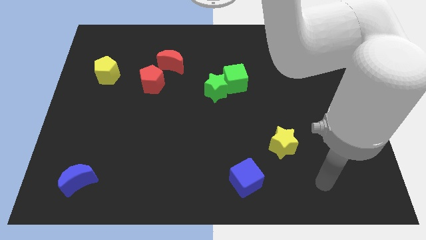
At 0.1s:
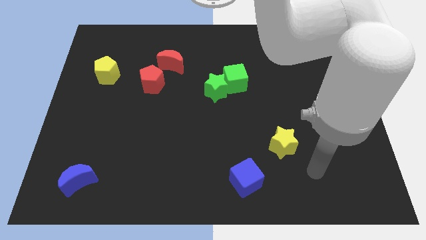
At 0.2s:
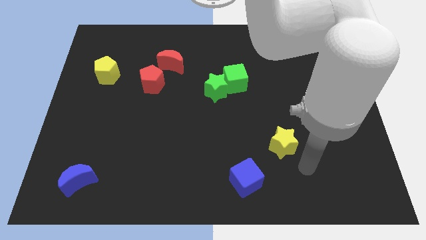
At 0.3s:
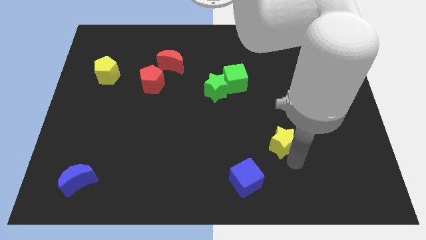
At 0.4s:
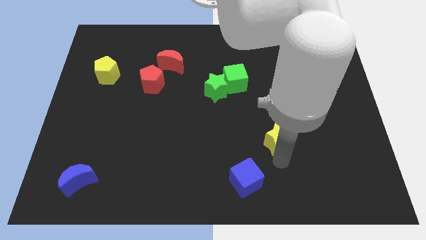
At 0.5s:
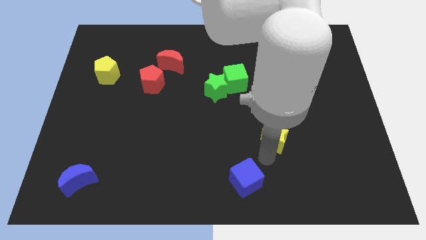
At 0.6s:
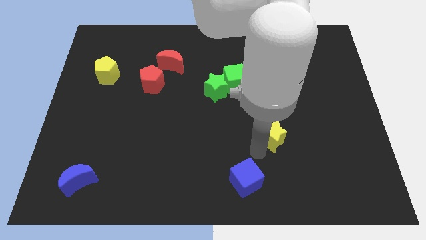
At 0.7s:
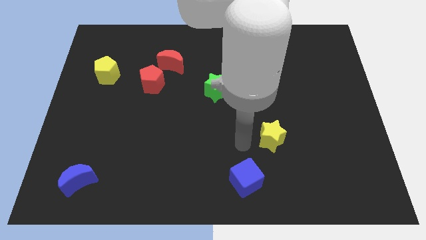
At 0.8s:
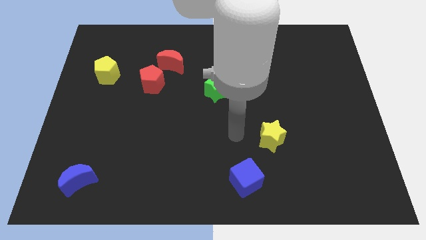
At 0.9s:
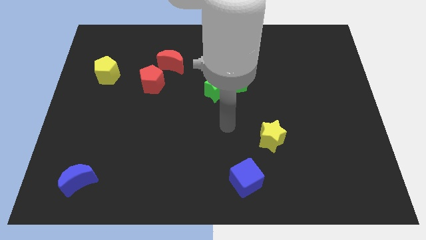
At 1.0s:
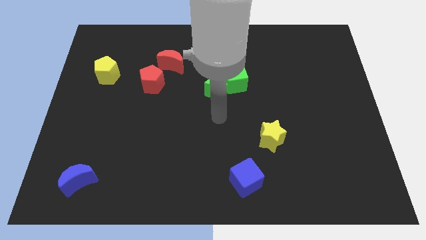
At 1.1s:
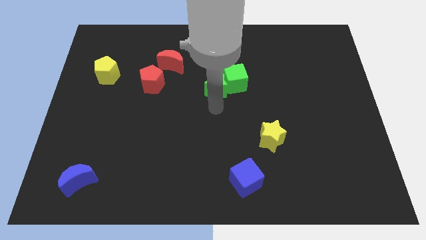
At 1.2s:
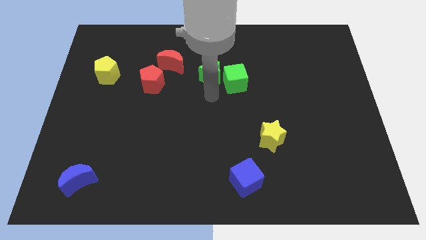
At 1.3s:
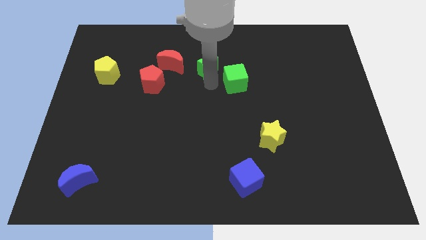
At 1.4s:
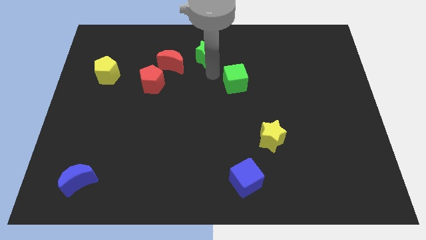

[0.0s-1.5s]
move the green cube away from the green star

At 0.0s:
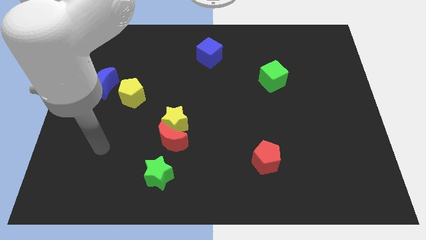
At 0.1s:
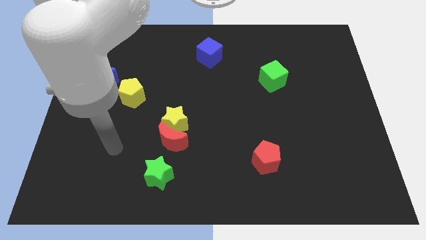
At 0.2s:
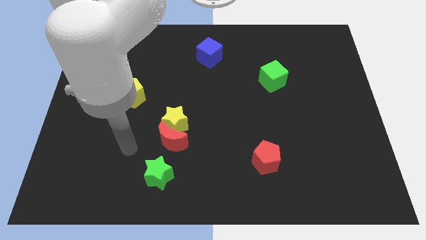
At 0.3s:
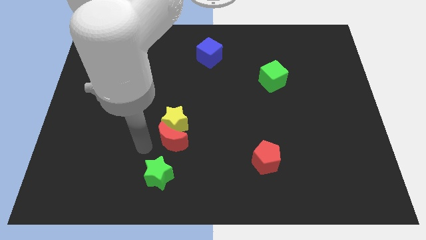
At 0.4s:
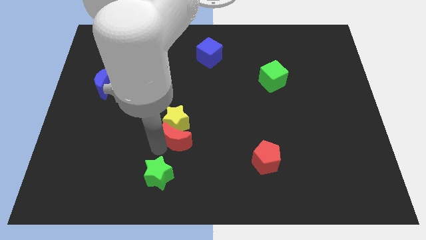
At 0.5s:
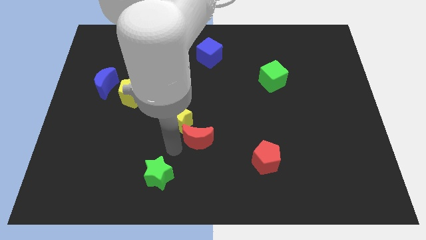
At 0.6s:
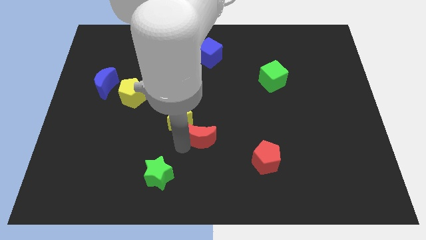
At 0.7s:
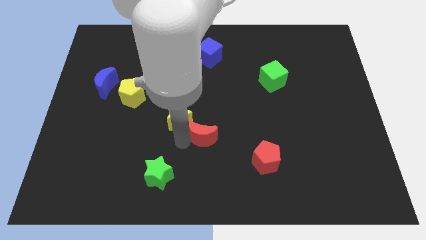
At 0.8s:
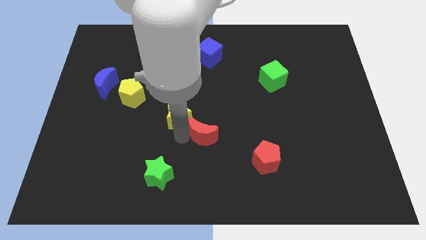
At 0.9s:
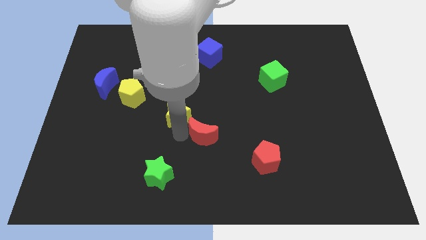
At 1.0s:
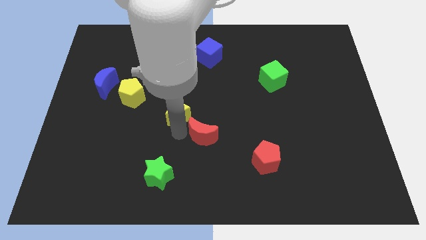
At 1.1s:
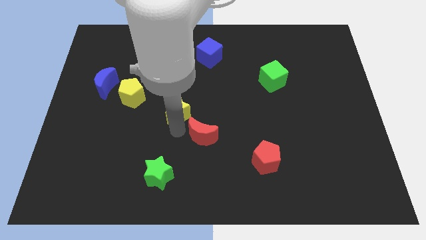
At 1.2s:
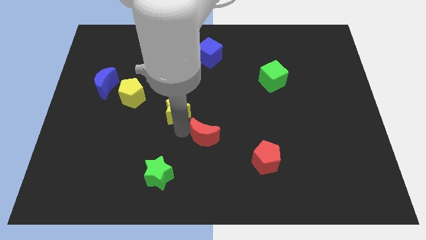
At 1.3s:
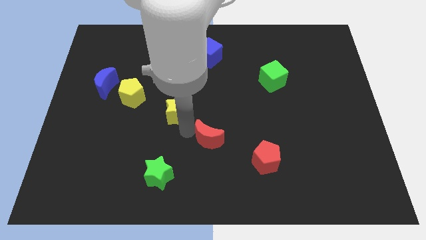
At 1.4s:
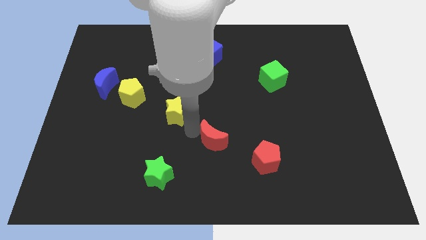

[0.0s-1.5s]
separate the yellow star from the red moon

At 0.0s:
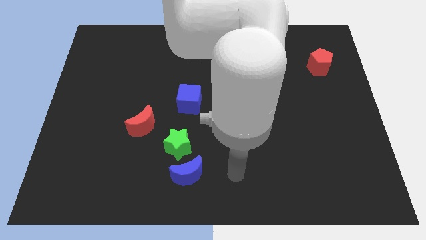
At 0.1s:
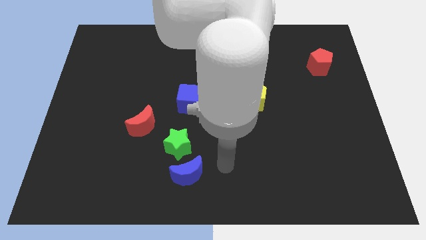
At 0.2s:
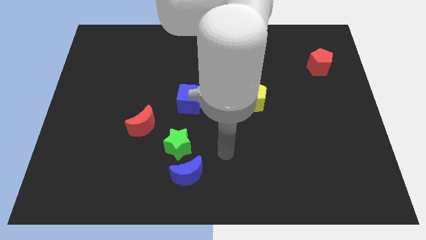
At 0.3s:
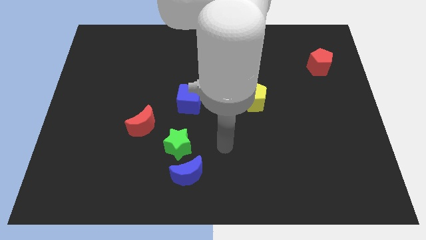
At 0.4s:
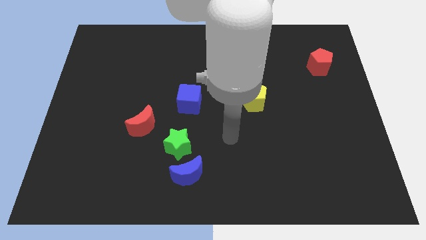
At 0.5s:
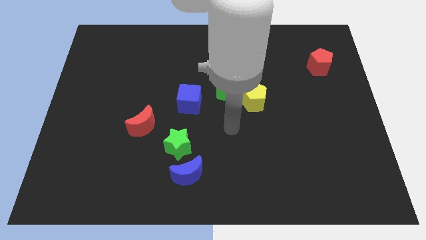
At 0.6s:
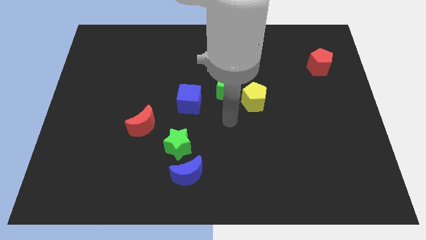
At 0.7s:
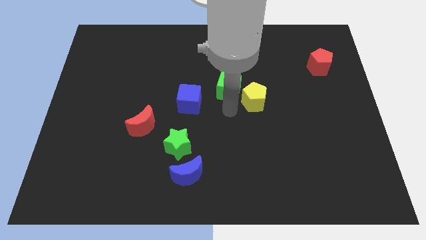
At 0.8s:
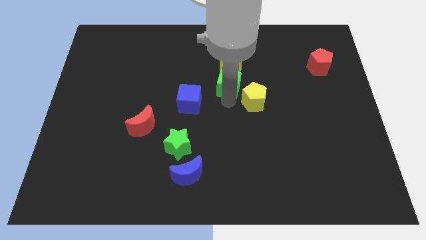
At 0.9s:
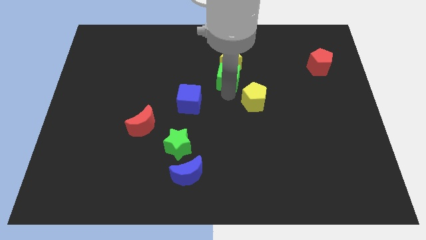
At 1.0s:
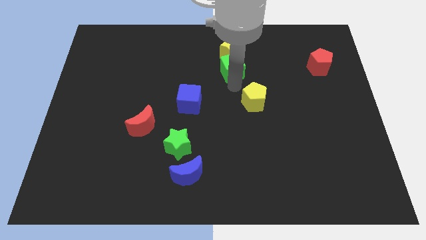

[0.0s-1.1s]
separate the yellow pentagon from the green cube

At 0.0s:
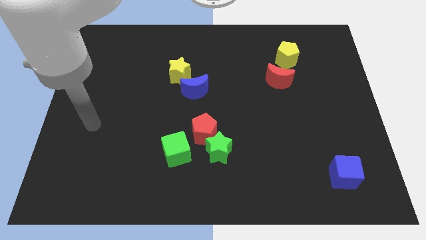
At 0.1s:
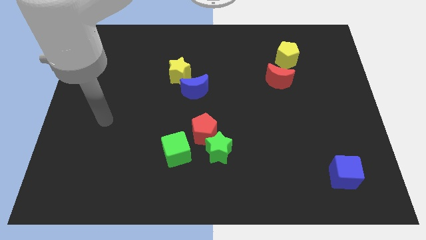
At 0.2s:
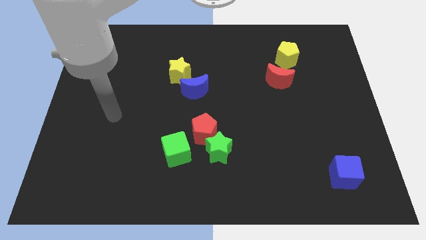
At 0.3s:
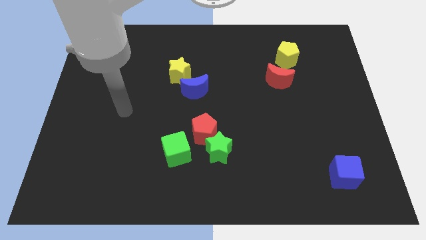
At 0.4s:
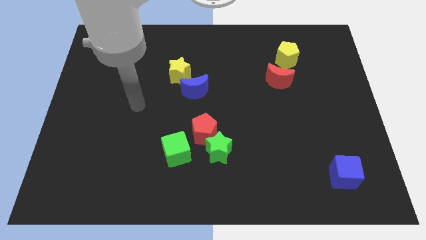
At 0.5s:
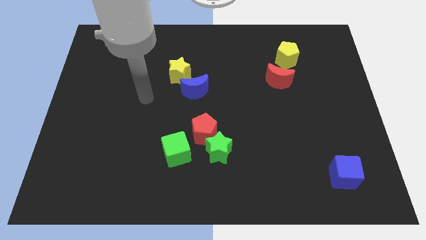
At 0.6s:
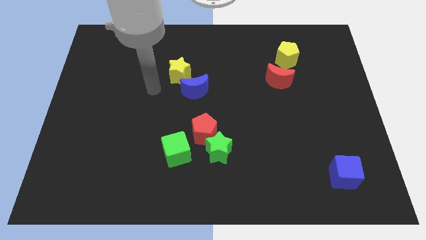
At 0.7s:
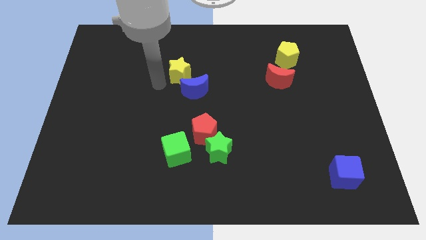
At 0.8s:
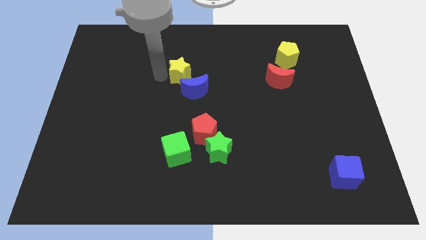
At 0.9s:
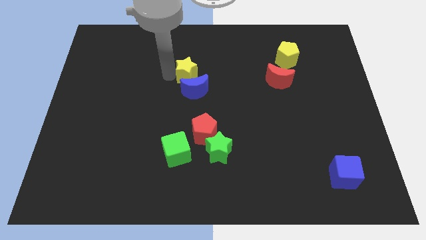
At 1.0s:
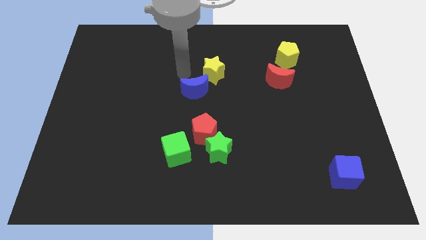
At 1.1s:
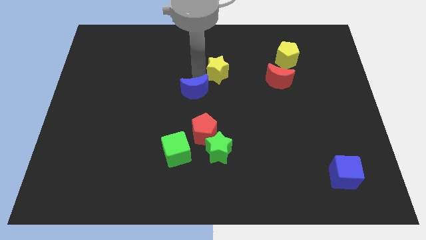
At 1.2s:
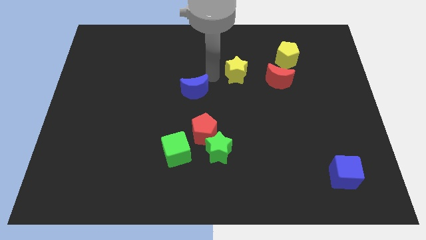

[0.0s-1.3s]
pull the blue moon apart from the yellow star

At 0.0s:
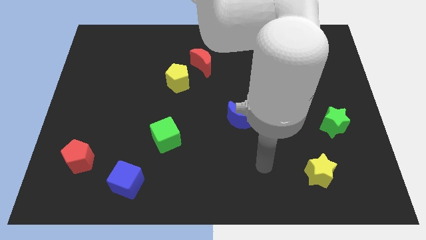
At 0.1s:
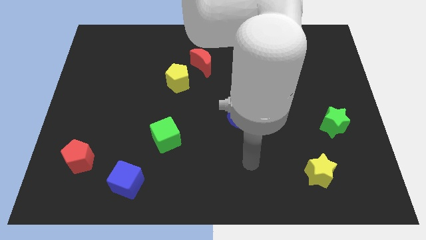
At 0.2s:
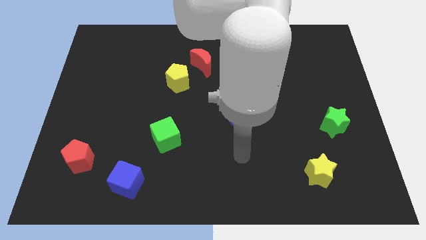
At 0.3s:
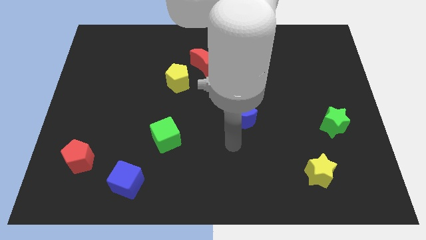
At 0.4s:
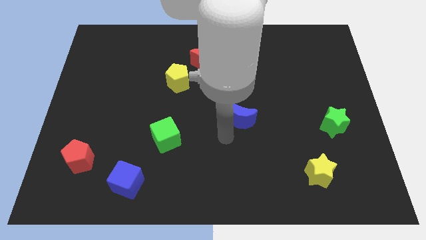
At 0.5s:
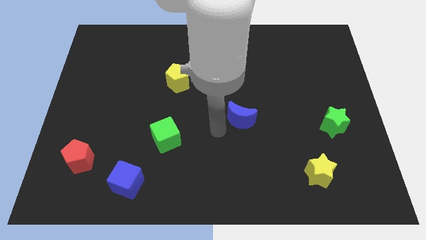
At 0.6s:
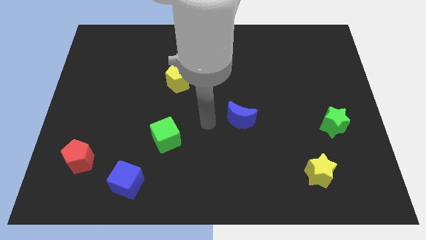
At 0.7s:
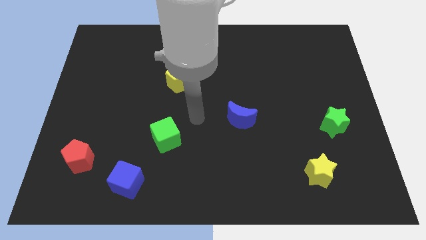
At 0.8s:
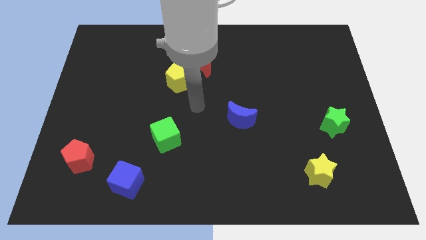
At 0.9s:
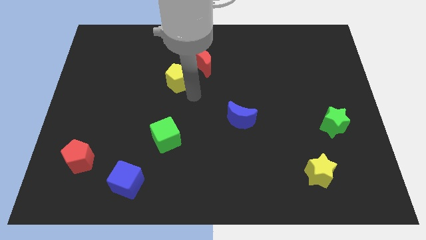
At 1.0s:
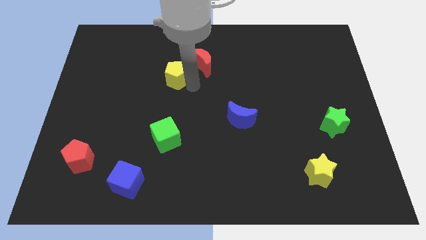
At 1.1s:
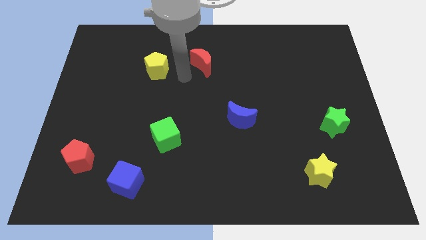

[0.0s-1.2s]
pull the red moon apart from the yellow pentagon

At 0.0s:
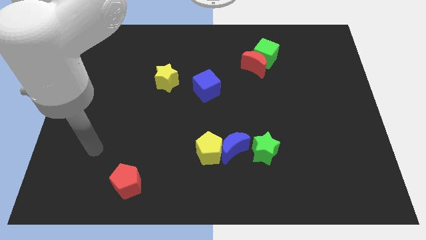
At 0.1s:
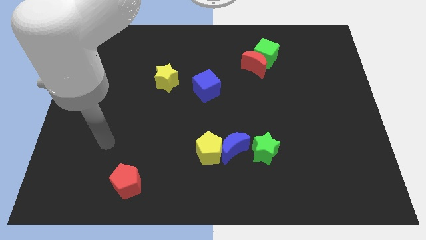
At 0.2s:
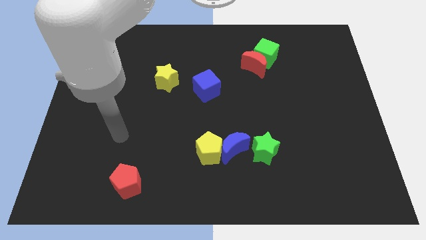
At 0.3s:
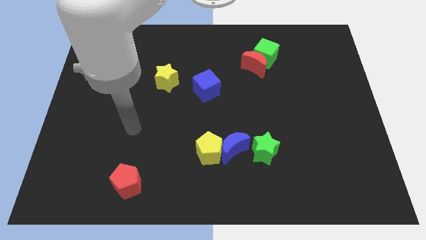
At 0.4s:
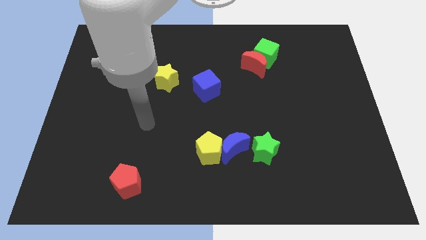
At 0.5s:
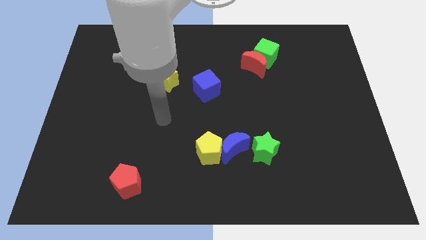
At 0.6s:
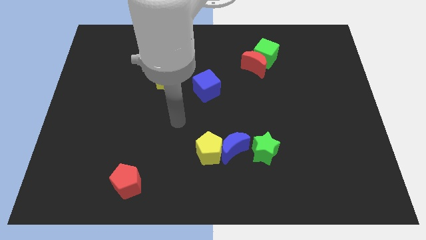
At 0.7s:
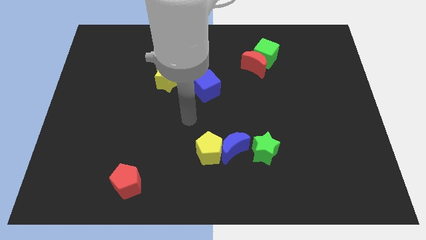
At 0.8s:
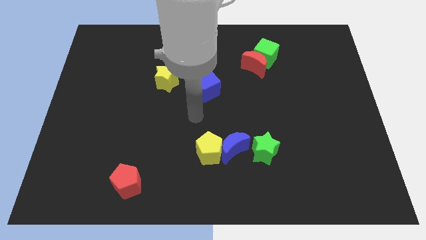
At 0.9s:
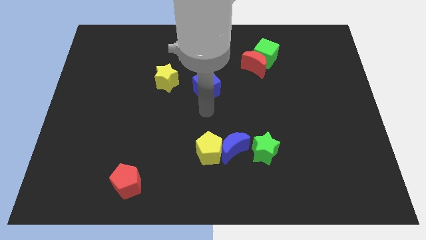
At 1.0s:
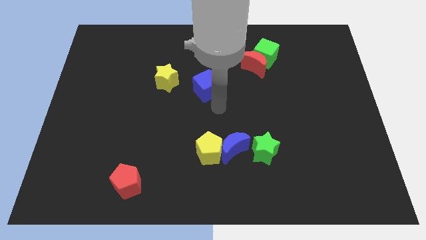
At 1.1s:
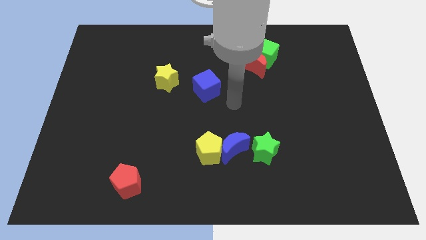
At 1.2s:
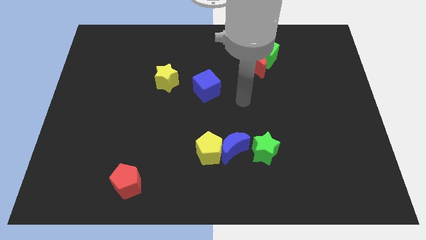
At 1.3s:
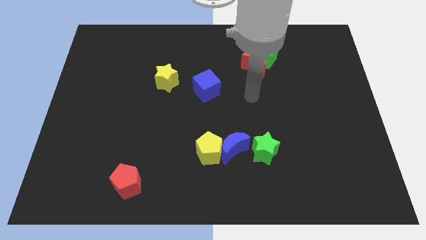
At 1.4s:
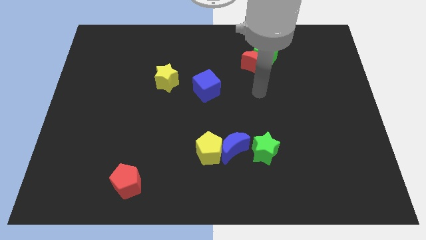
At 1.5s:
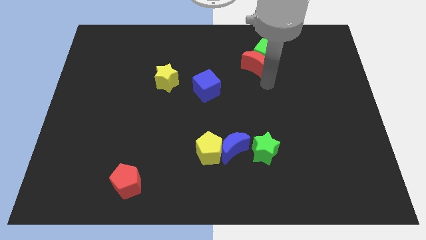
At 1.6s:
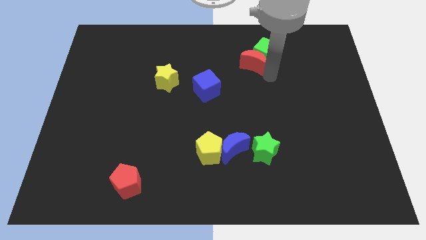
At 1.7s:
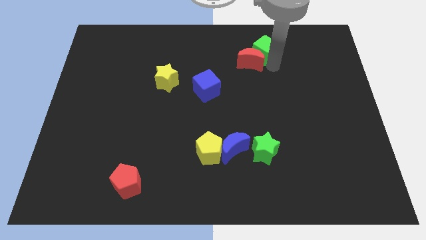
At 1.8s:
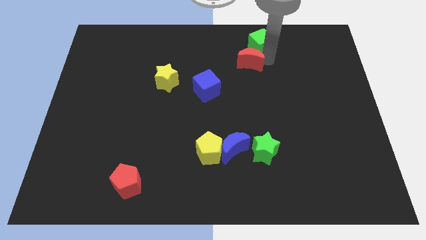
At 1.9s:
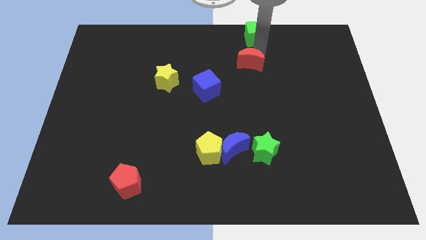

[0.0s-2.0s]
move the red moon away from the green cube

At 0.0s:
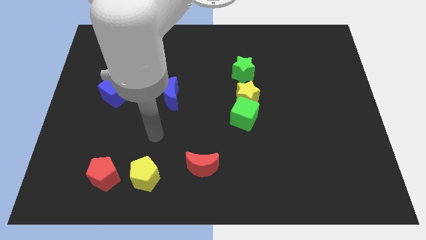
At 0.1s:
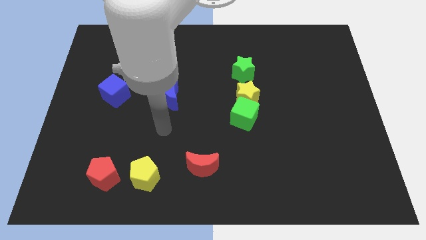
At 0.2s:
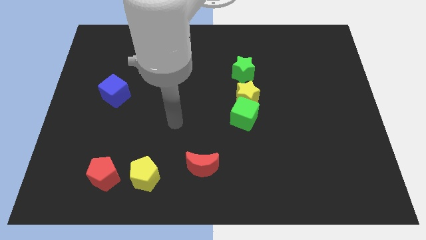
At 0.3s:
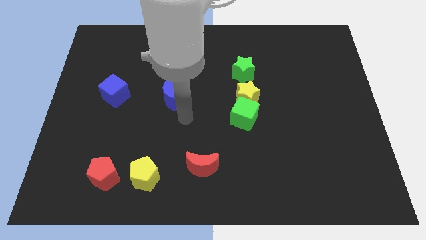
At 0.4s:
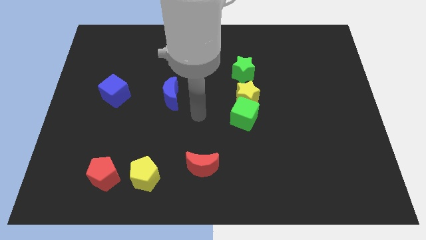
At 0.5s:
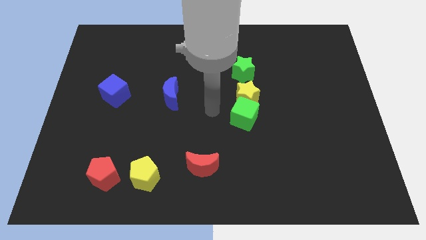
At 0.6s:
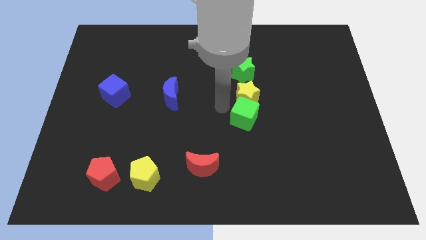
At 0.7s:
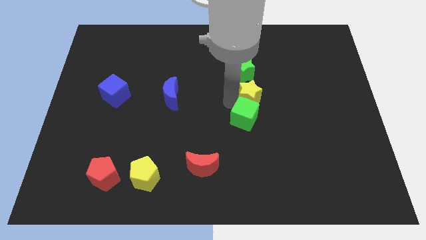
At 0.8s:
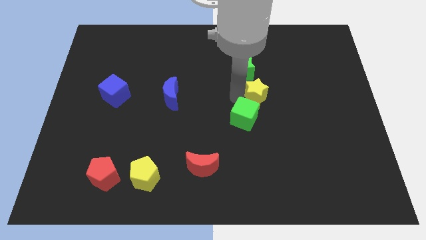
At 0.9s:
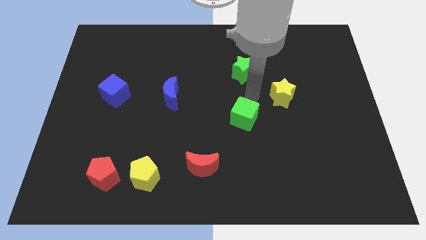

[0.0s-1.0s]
pull the green cube apart from the yellow star
